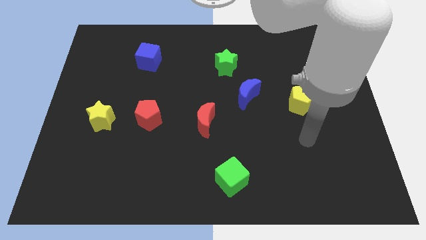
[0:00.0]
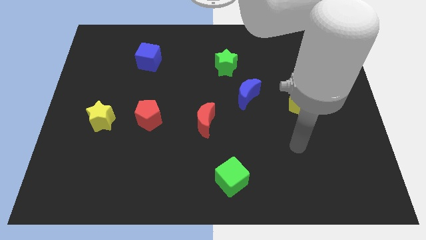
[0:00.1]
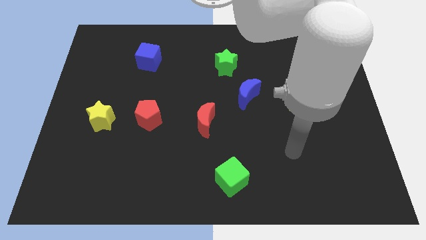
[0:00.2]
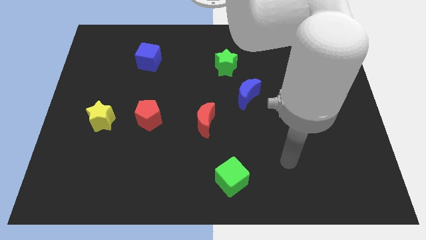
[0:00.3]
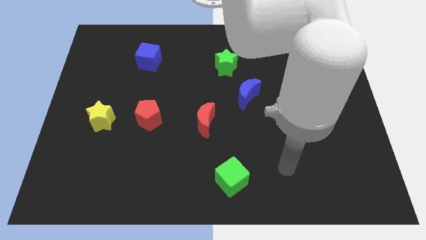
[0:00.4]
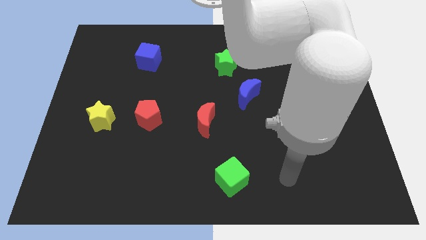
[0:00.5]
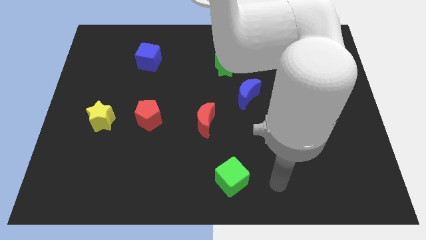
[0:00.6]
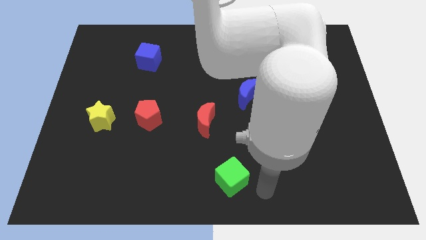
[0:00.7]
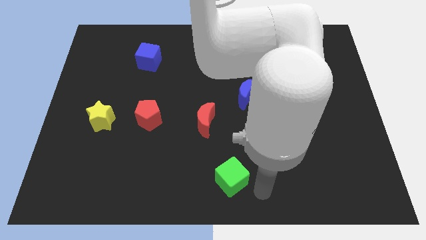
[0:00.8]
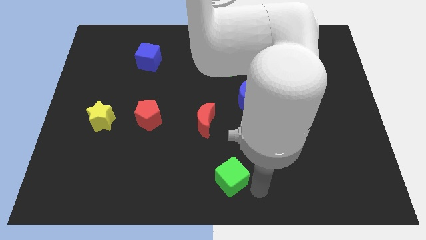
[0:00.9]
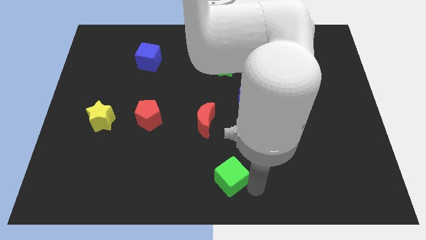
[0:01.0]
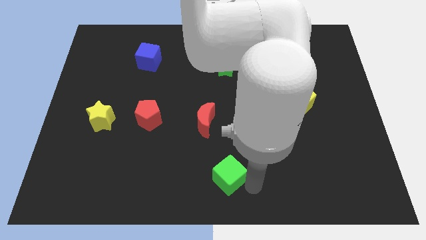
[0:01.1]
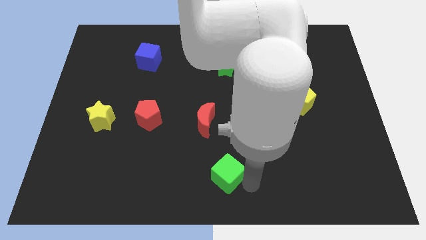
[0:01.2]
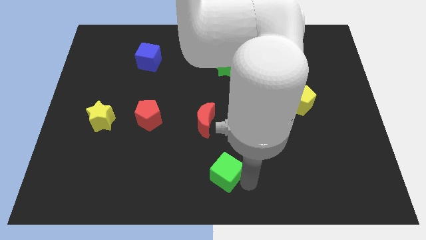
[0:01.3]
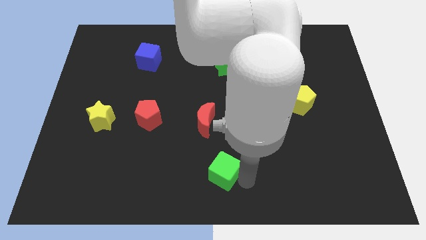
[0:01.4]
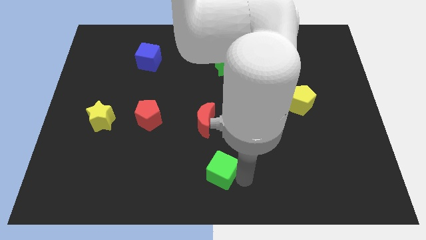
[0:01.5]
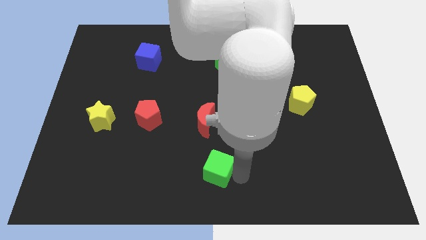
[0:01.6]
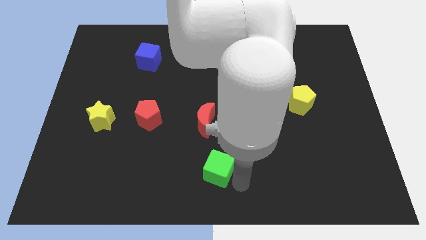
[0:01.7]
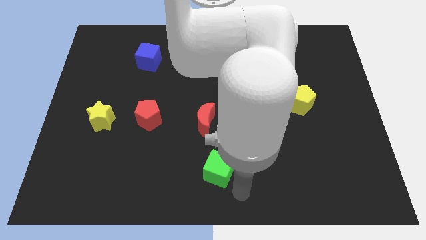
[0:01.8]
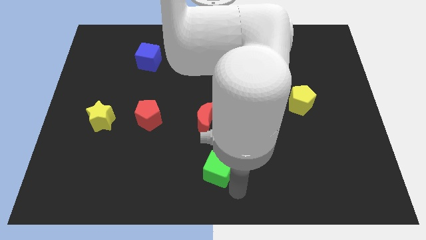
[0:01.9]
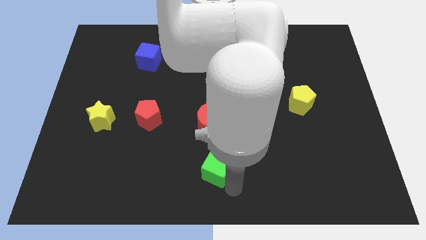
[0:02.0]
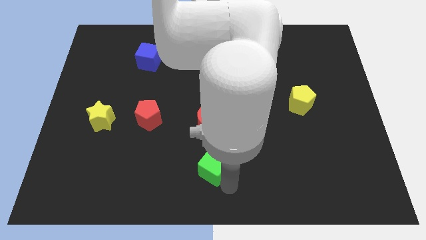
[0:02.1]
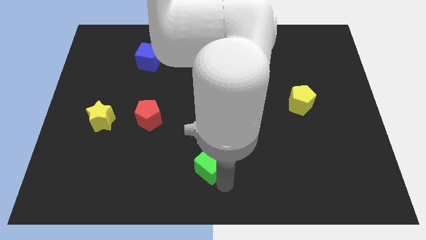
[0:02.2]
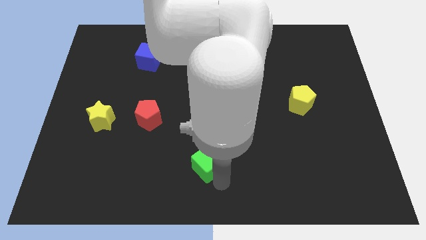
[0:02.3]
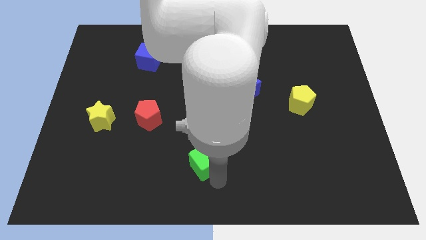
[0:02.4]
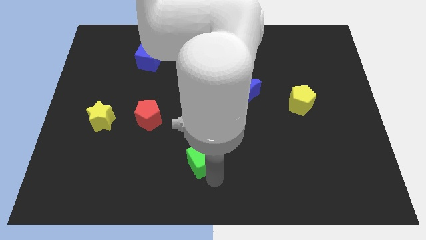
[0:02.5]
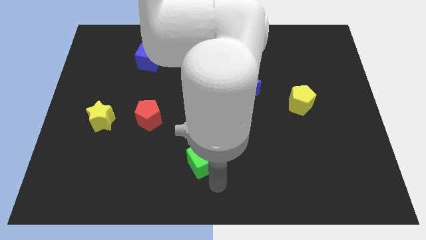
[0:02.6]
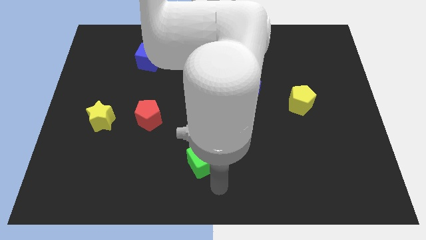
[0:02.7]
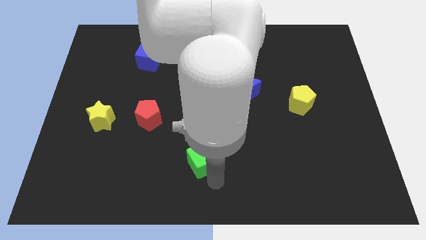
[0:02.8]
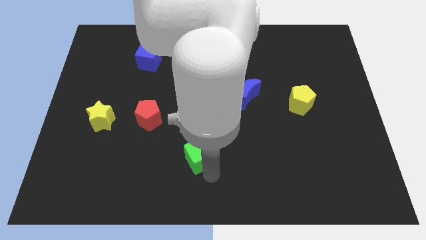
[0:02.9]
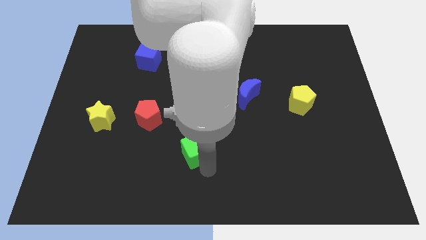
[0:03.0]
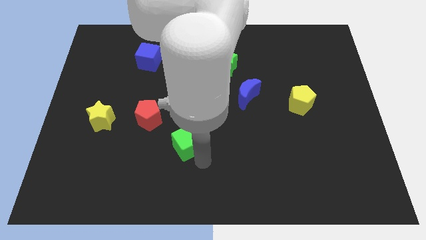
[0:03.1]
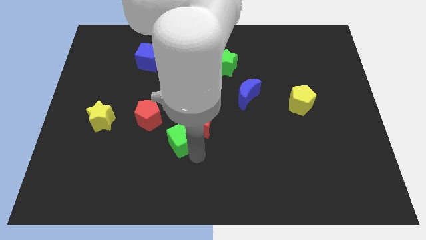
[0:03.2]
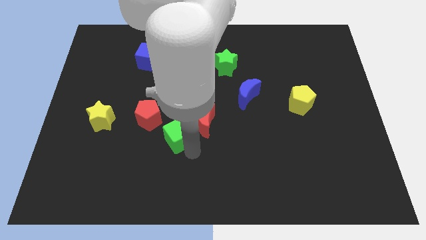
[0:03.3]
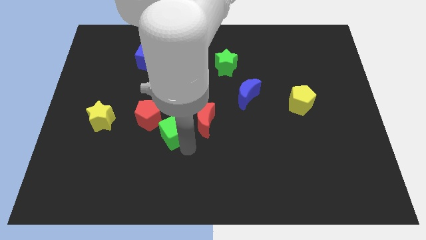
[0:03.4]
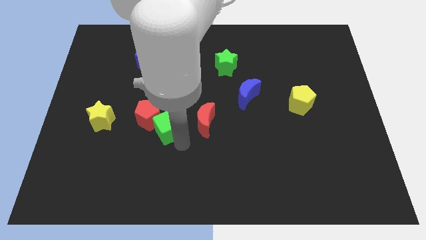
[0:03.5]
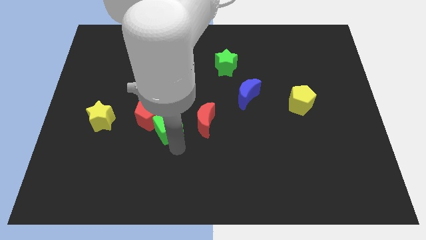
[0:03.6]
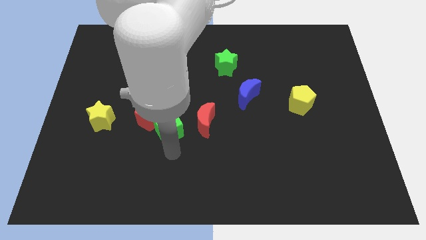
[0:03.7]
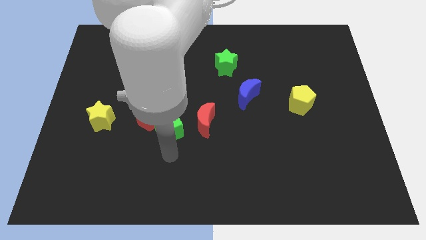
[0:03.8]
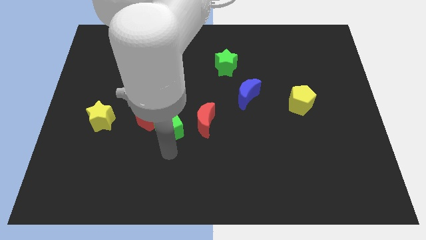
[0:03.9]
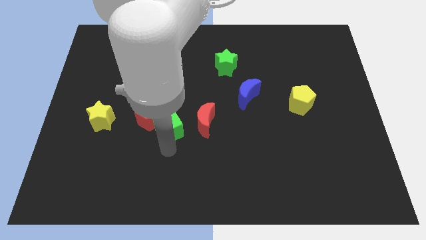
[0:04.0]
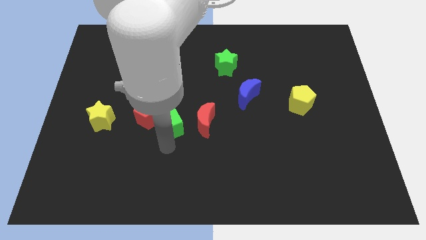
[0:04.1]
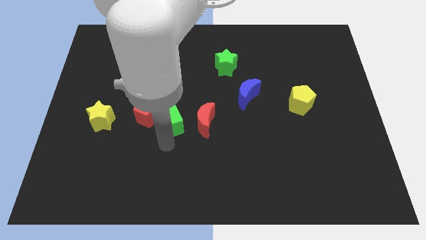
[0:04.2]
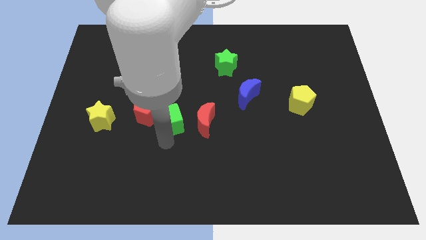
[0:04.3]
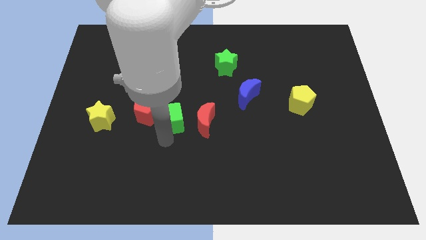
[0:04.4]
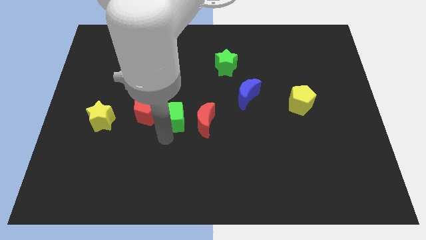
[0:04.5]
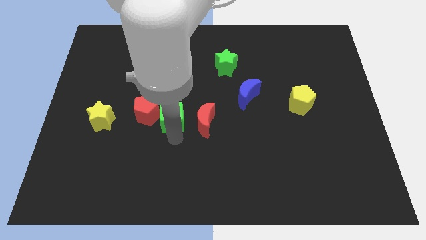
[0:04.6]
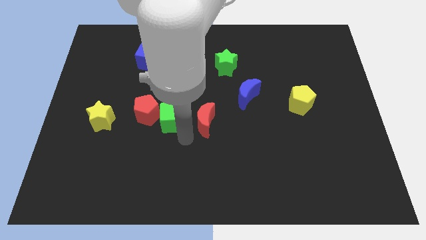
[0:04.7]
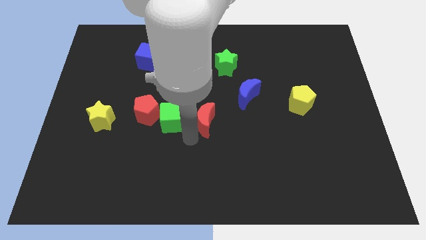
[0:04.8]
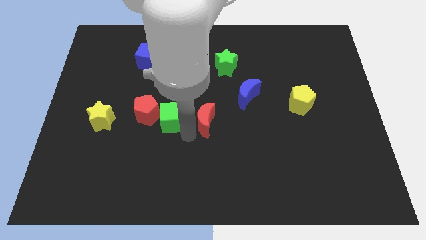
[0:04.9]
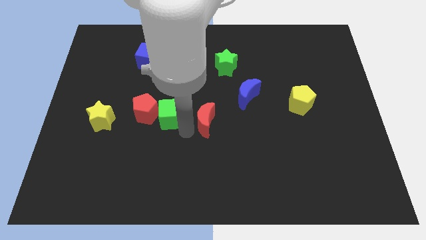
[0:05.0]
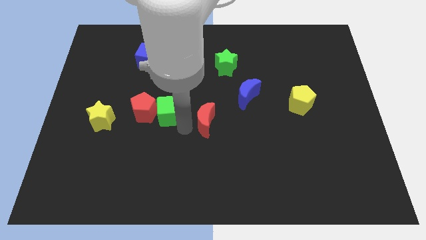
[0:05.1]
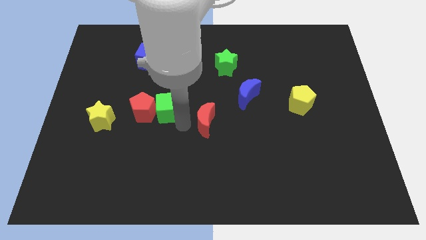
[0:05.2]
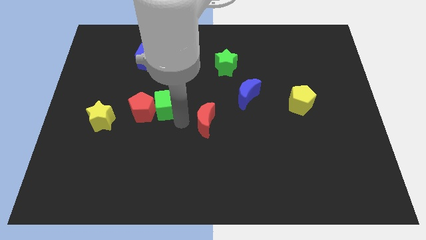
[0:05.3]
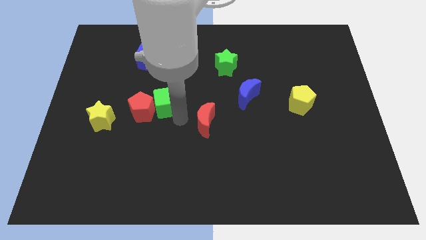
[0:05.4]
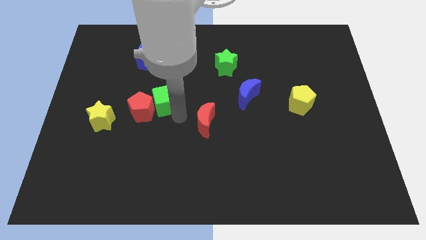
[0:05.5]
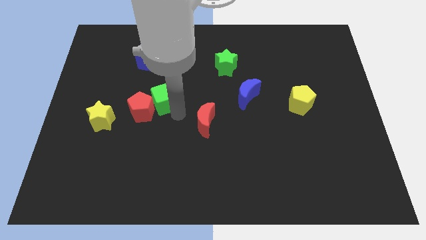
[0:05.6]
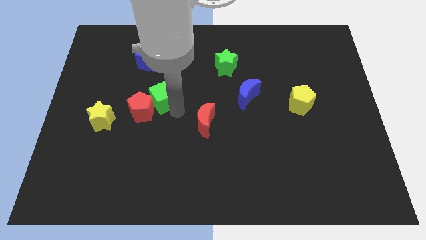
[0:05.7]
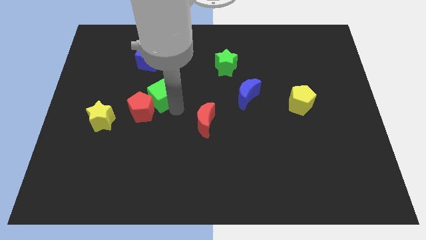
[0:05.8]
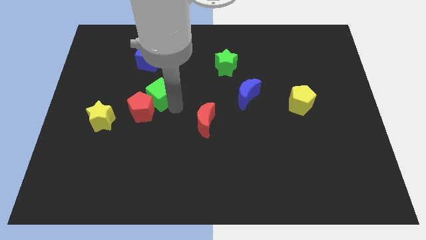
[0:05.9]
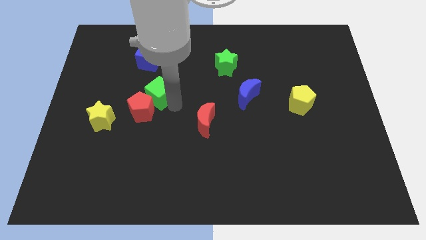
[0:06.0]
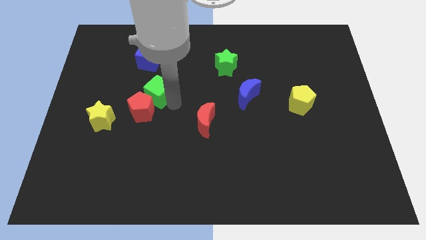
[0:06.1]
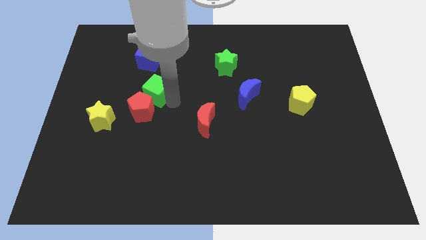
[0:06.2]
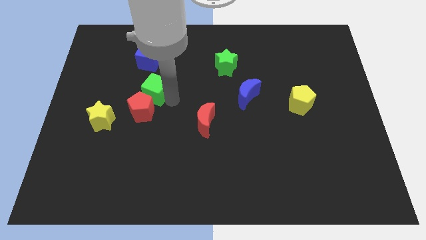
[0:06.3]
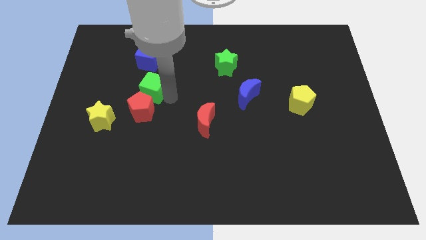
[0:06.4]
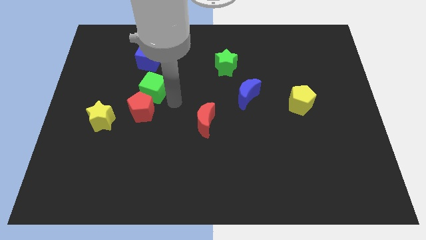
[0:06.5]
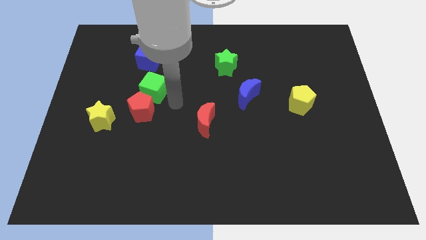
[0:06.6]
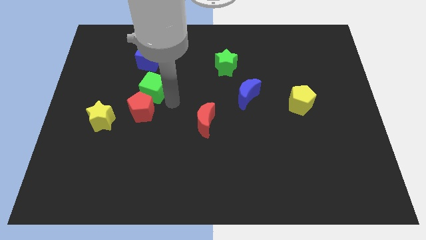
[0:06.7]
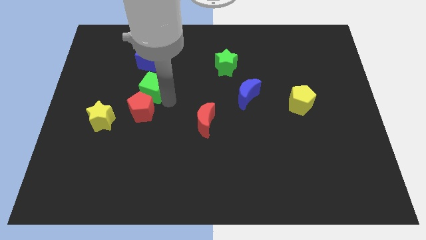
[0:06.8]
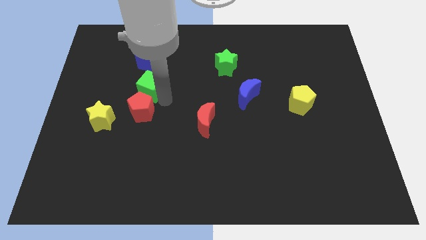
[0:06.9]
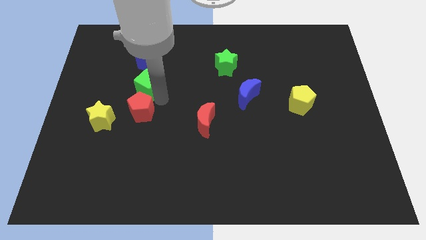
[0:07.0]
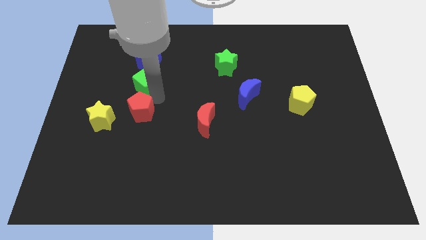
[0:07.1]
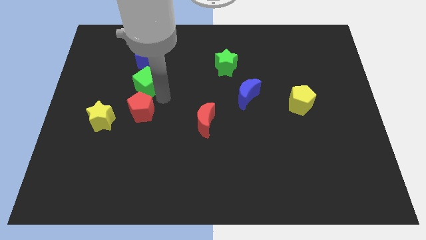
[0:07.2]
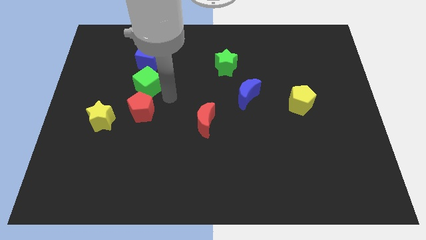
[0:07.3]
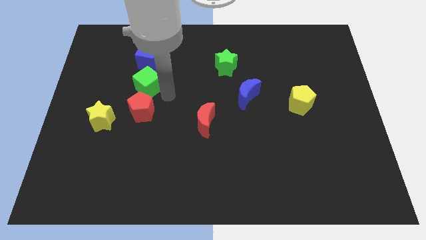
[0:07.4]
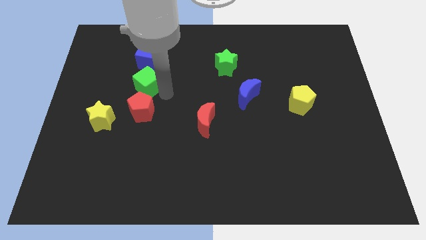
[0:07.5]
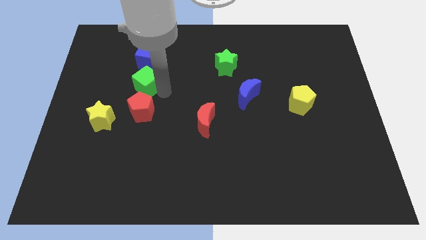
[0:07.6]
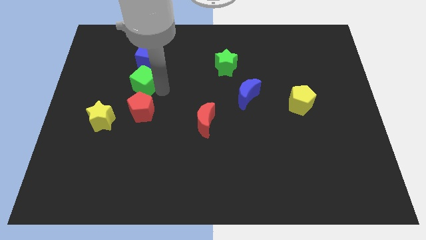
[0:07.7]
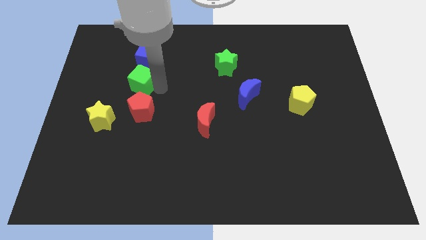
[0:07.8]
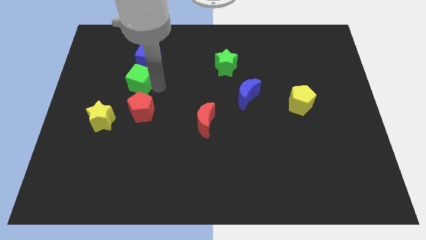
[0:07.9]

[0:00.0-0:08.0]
move the green cube to the bottom left of the blue cube
